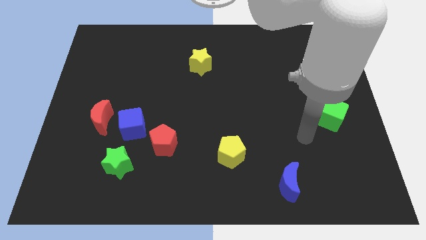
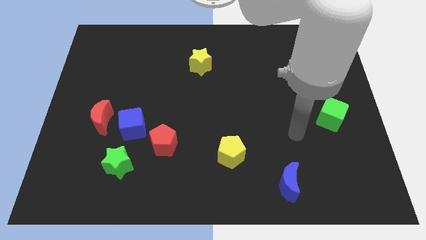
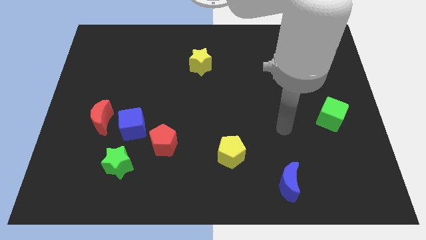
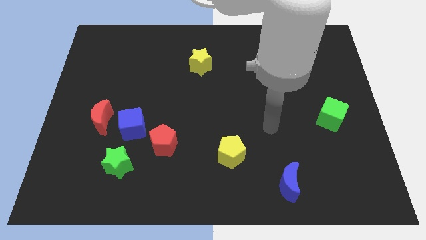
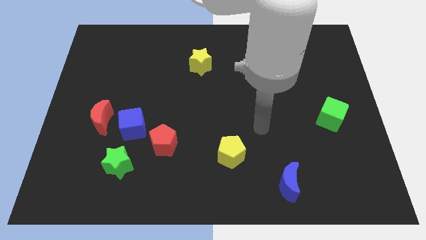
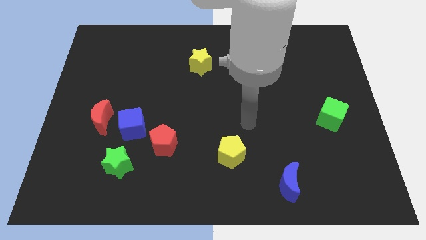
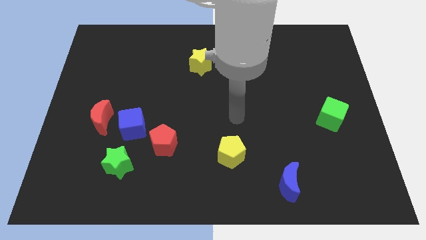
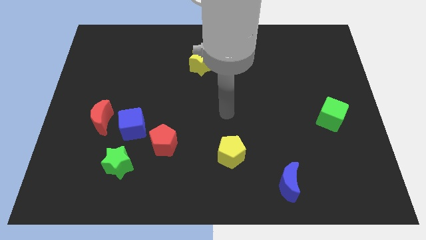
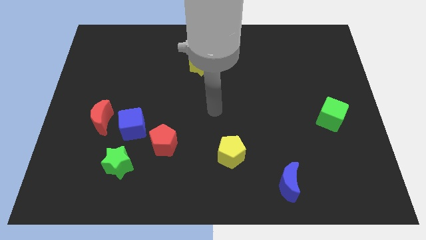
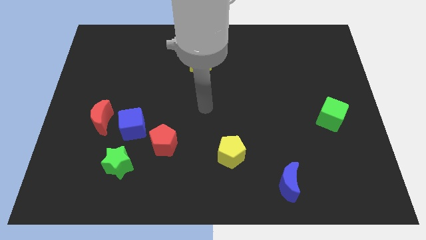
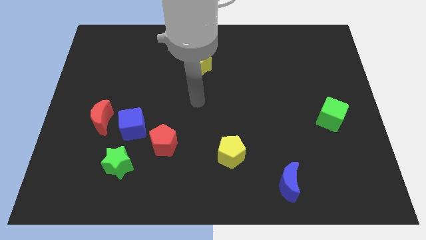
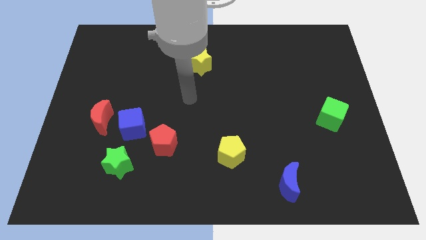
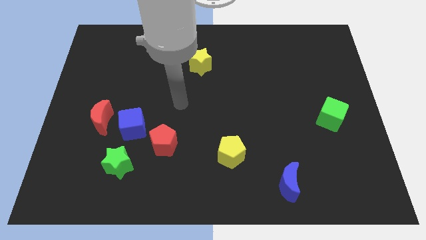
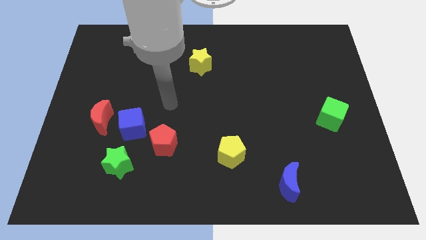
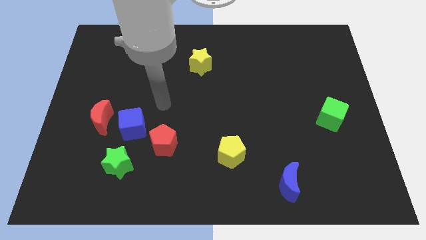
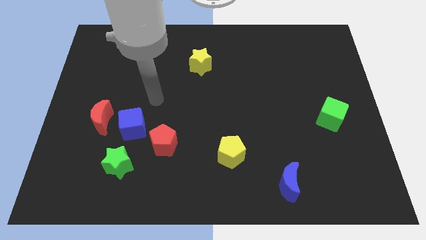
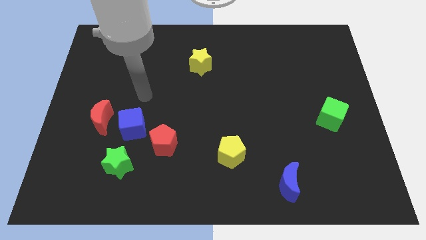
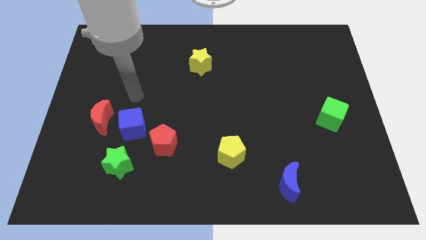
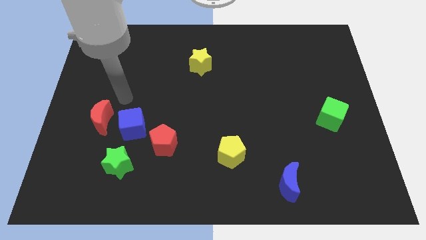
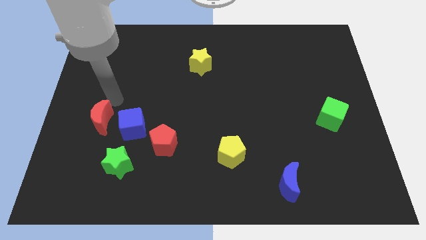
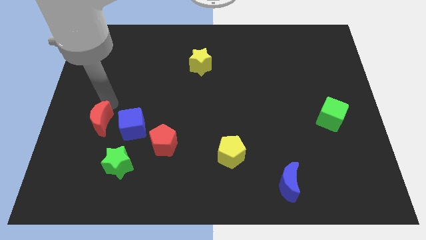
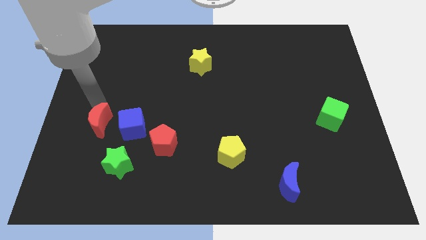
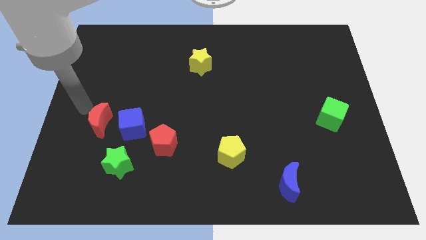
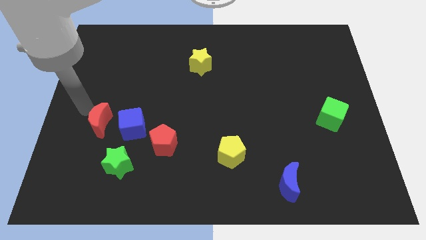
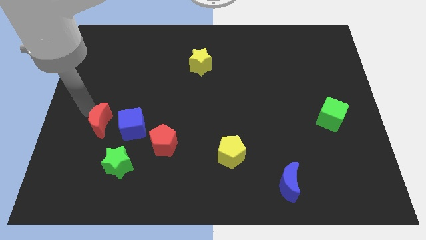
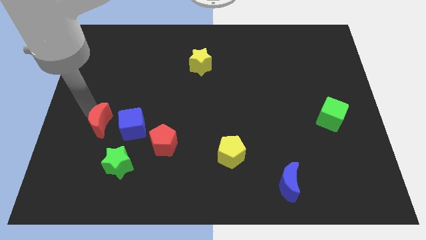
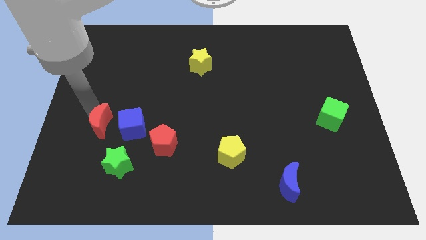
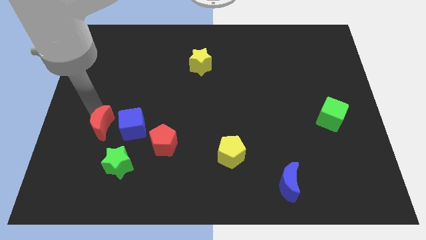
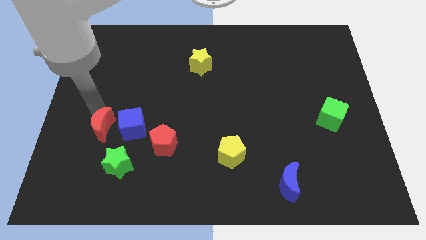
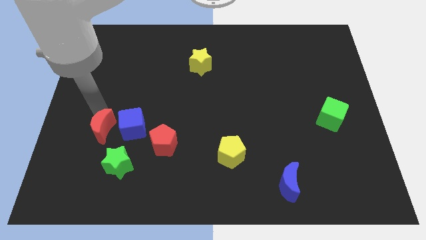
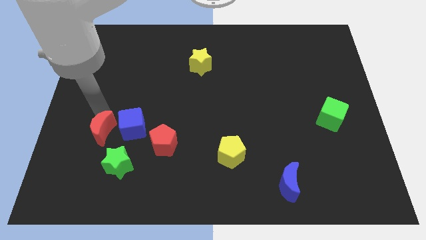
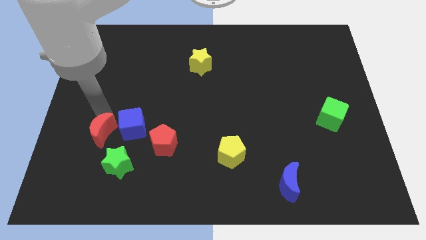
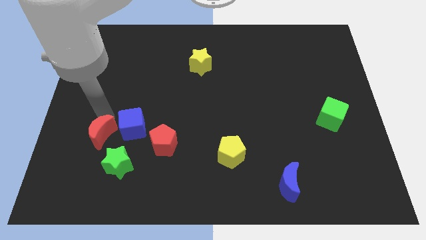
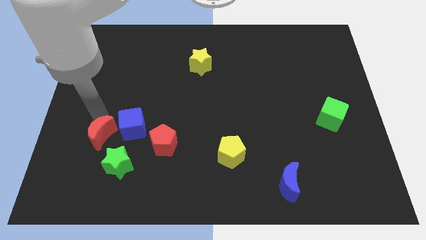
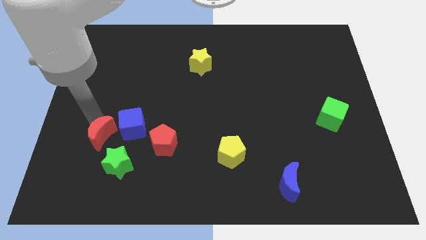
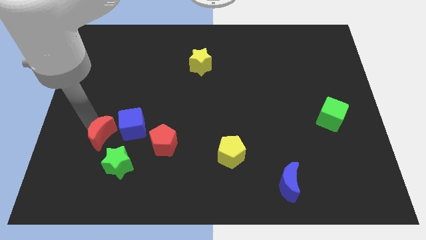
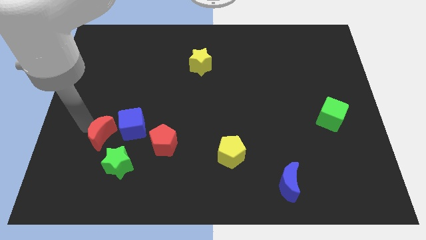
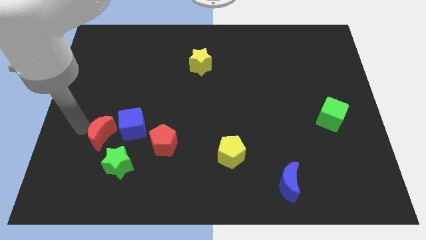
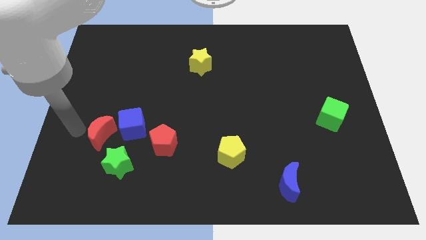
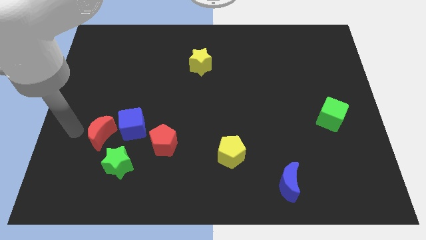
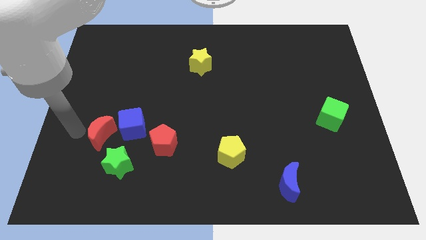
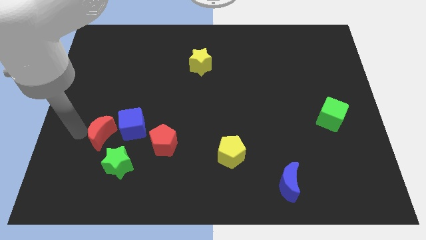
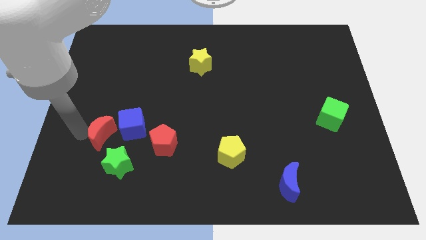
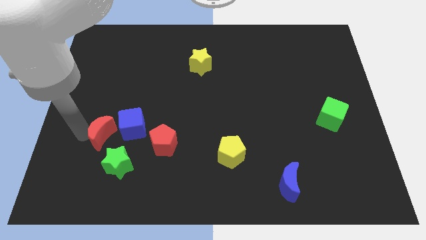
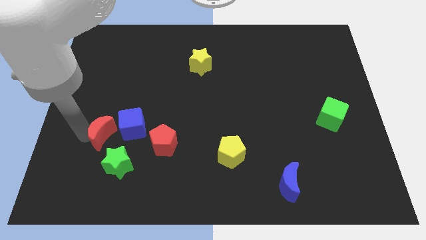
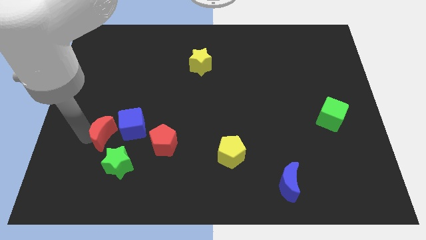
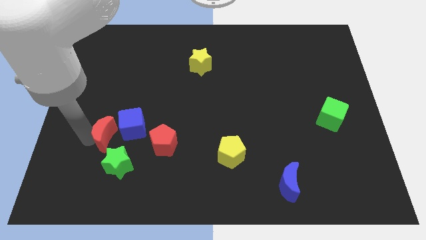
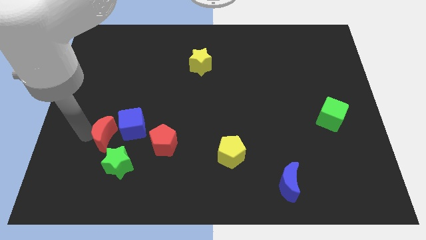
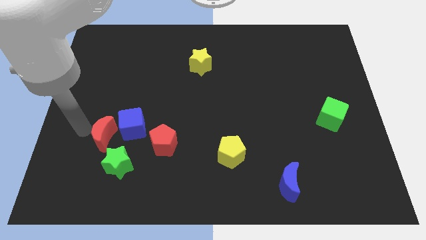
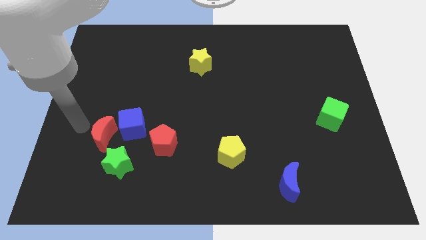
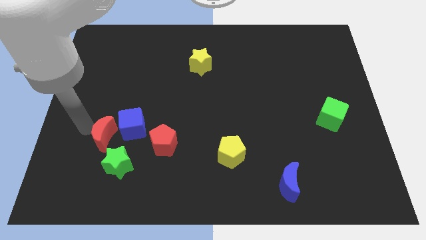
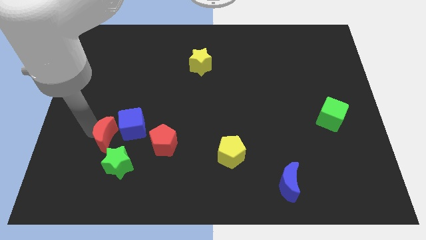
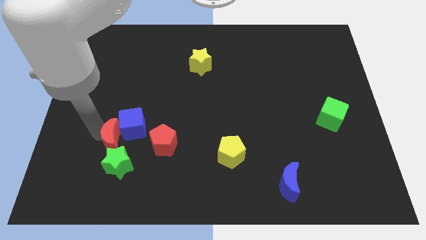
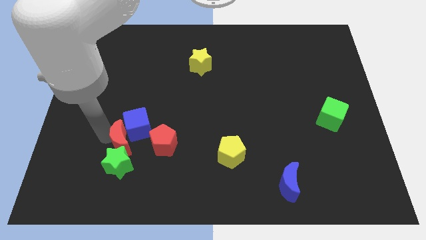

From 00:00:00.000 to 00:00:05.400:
slide the red moon downwards and to the right diagonally a bit

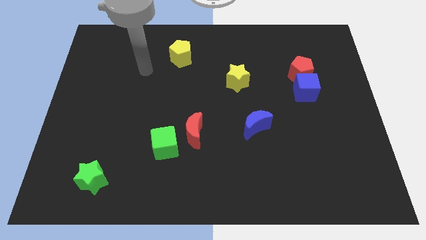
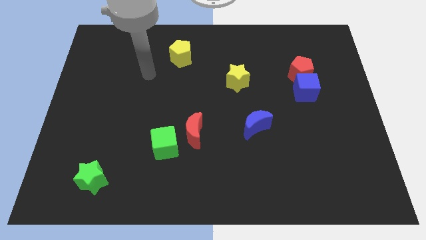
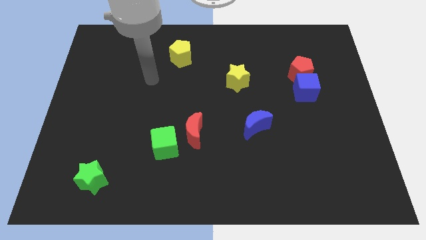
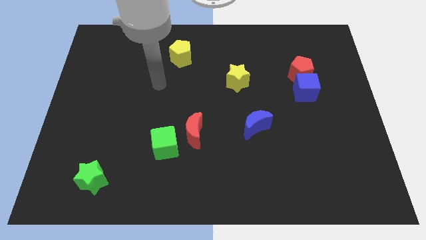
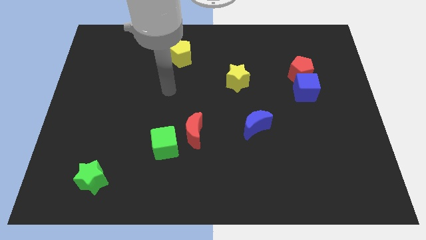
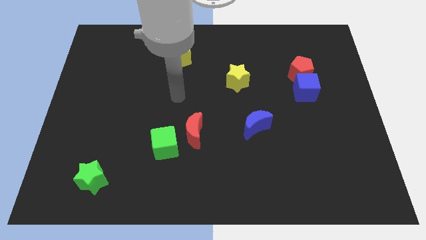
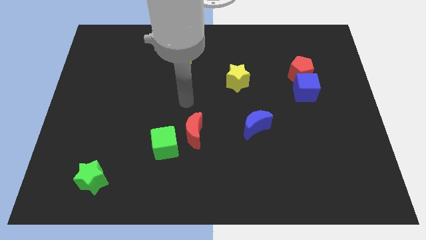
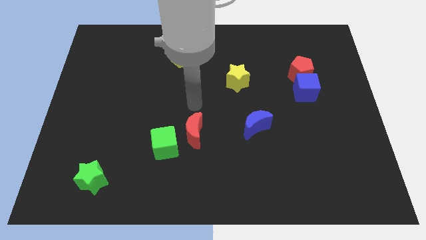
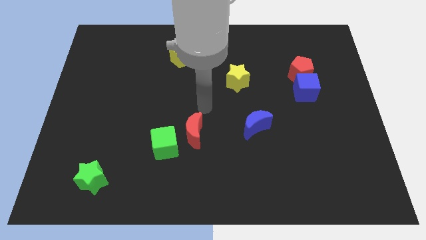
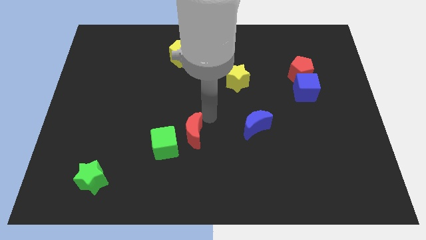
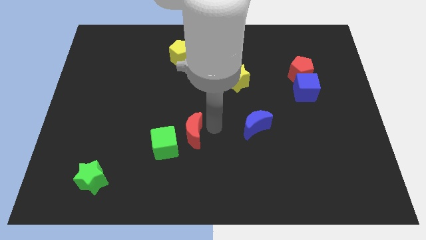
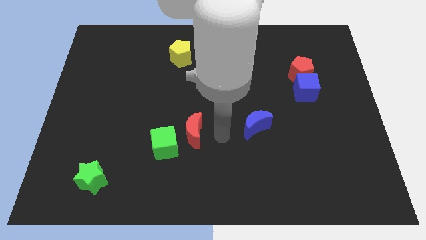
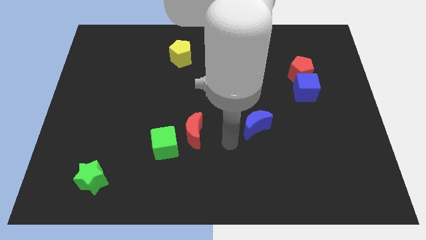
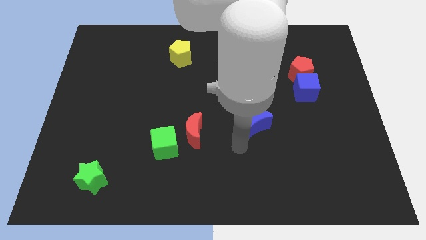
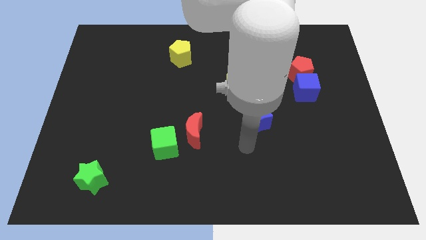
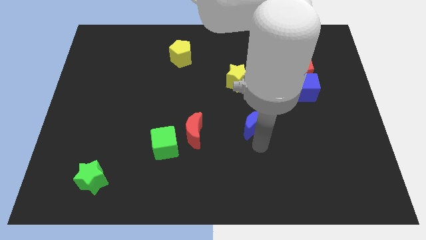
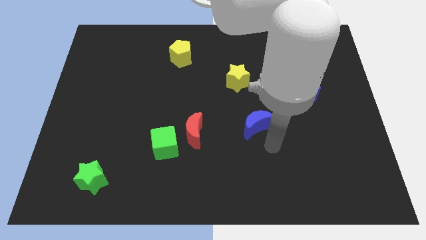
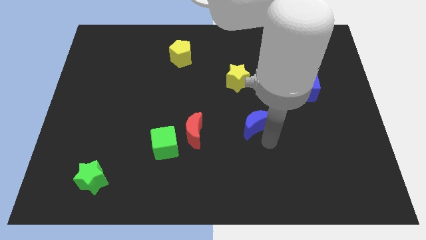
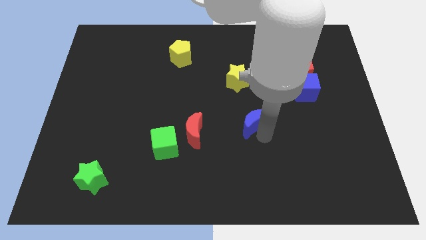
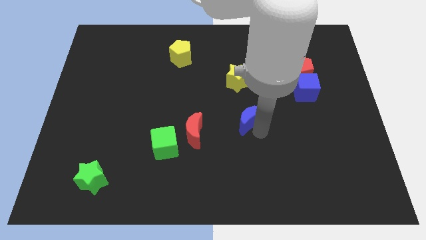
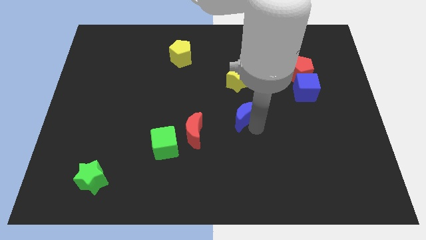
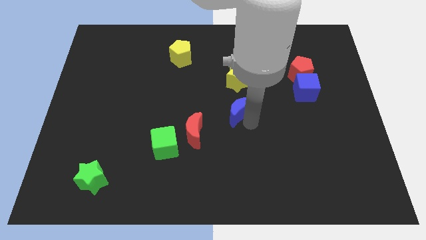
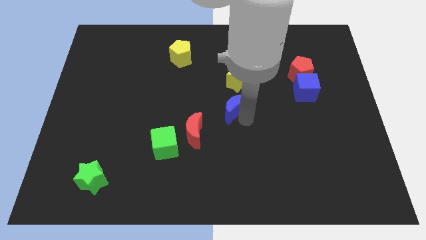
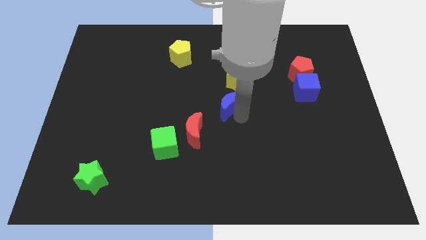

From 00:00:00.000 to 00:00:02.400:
move the blue moon a bit up and left
